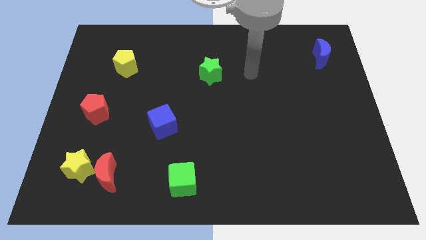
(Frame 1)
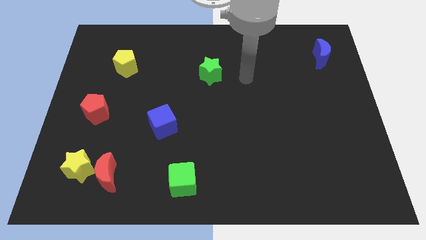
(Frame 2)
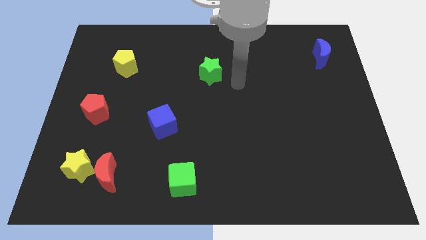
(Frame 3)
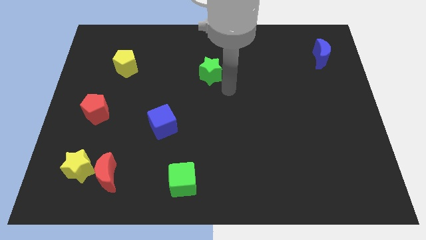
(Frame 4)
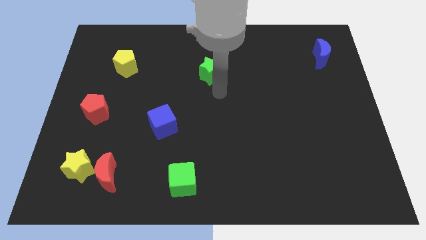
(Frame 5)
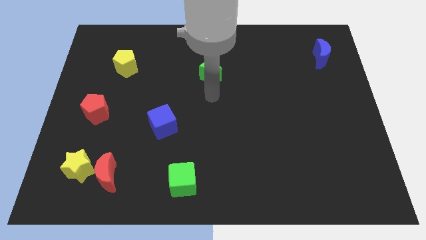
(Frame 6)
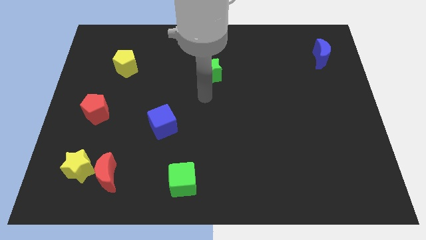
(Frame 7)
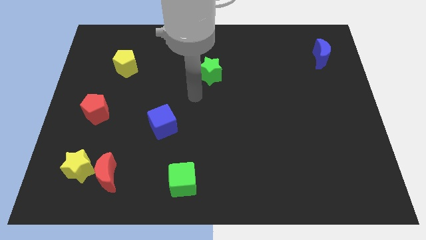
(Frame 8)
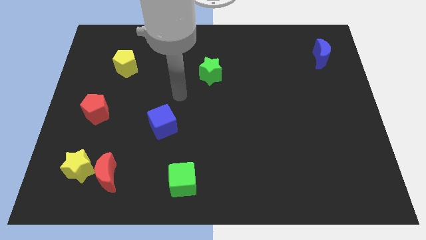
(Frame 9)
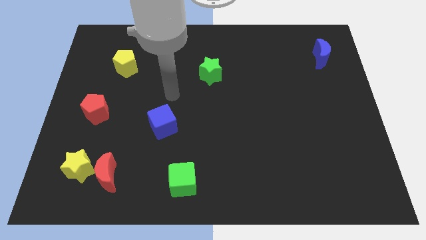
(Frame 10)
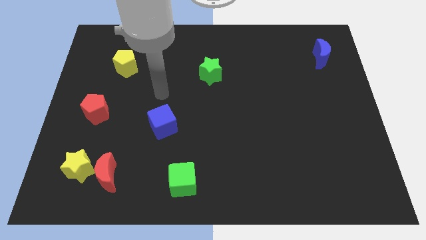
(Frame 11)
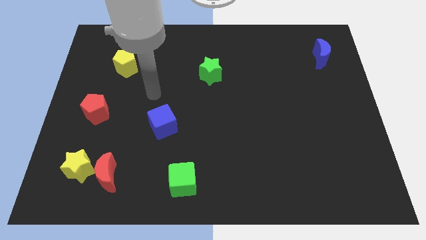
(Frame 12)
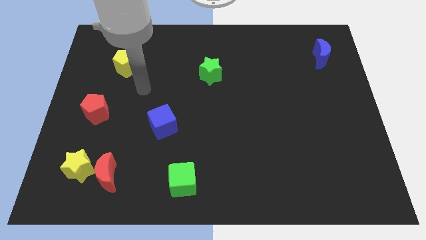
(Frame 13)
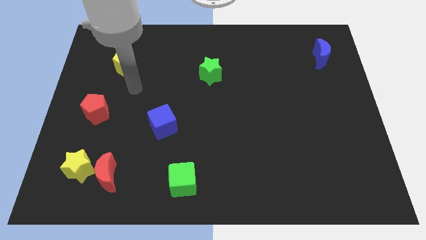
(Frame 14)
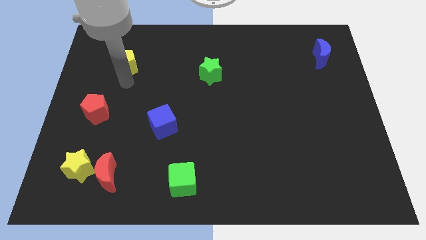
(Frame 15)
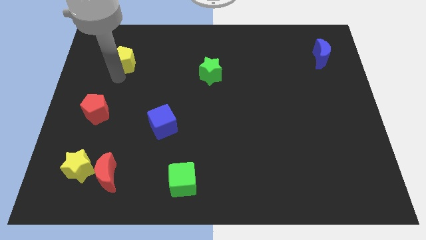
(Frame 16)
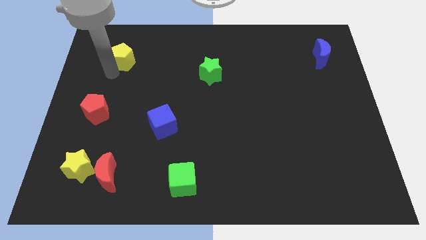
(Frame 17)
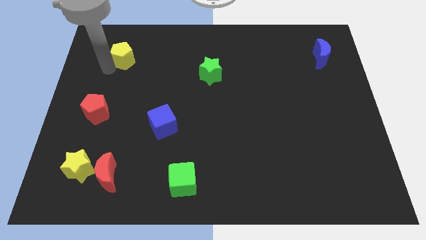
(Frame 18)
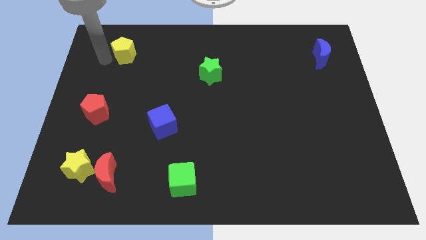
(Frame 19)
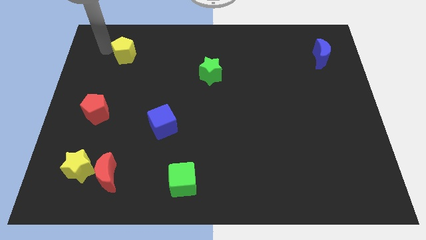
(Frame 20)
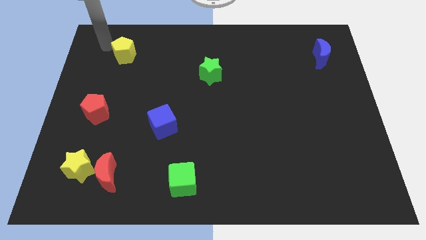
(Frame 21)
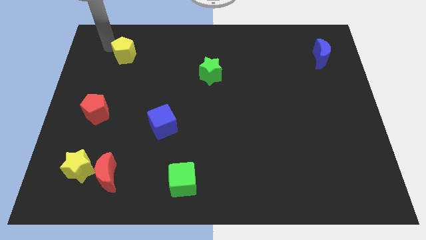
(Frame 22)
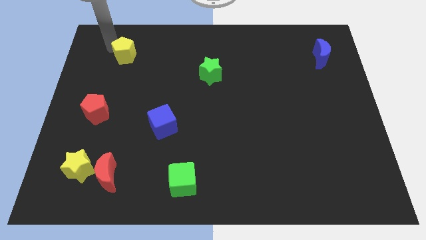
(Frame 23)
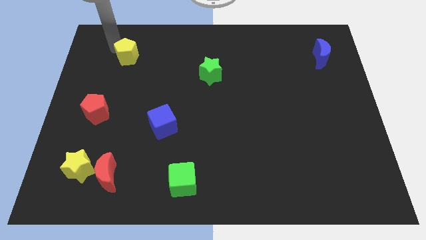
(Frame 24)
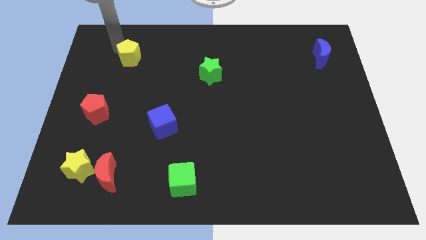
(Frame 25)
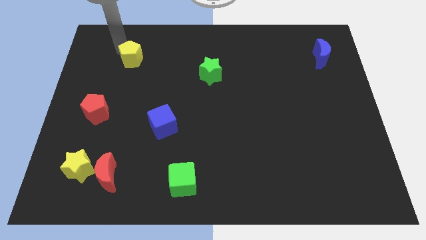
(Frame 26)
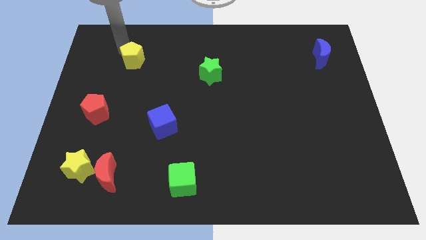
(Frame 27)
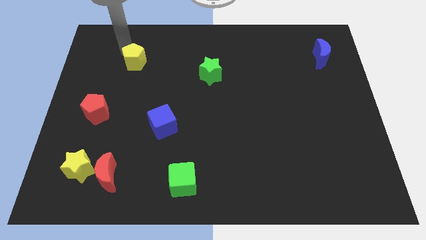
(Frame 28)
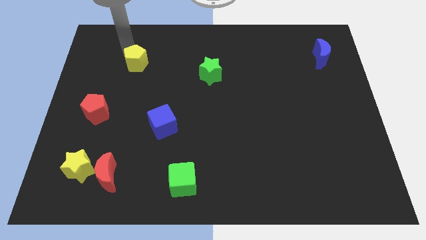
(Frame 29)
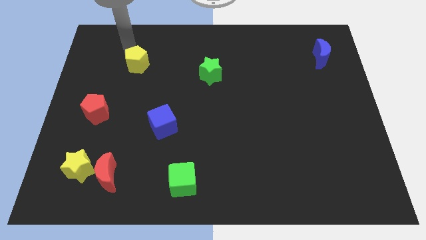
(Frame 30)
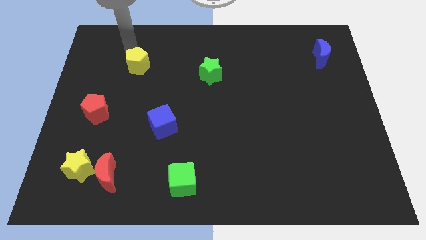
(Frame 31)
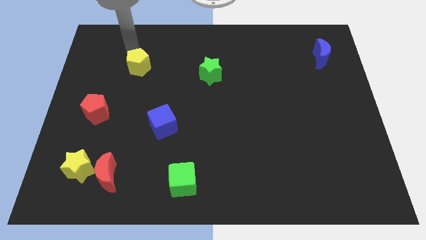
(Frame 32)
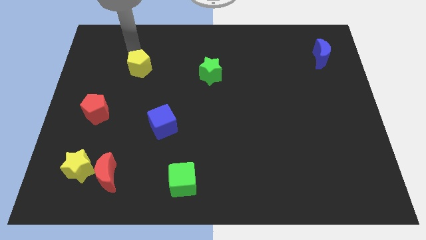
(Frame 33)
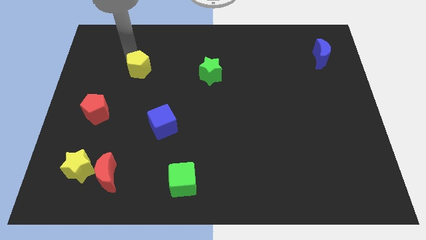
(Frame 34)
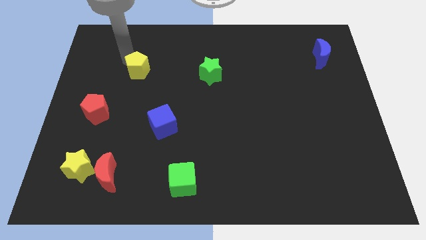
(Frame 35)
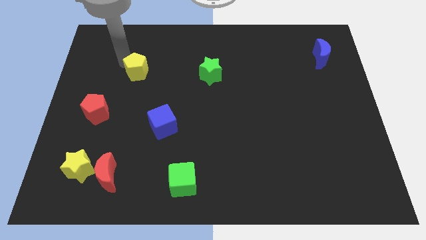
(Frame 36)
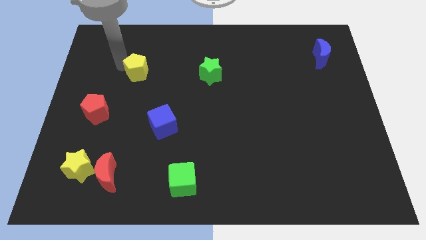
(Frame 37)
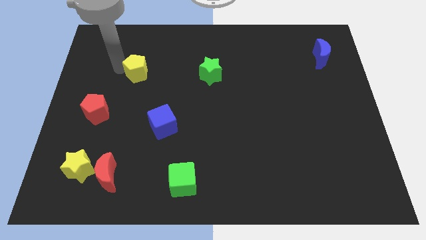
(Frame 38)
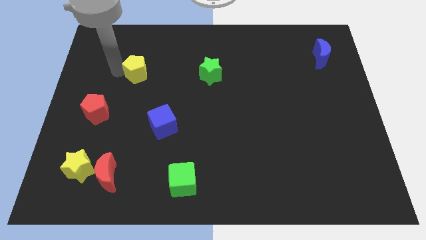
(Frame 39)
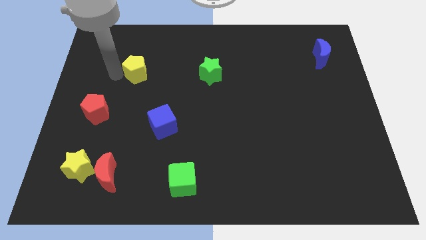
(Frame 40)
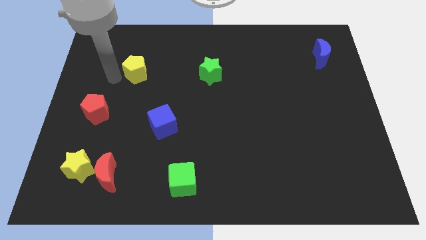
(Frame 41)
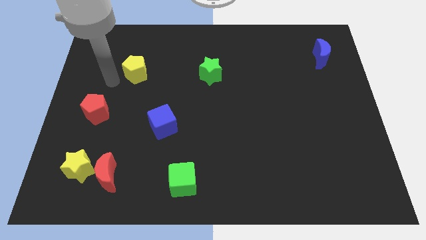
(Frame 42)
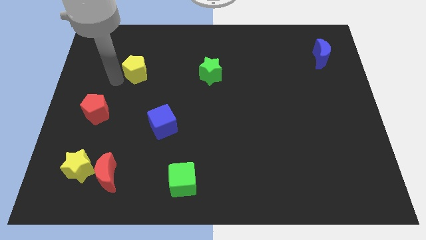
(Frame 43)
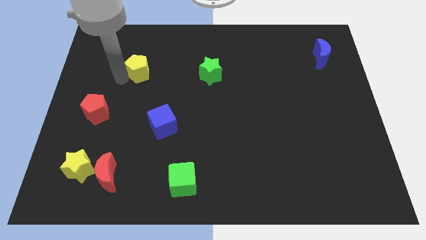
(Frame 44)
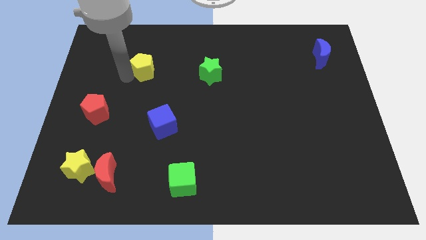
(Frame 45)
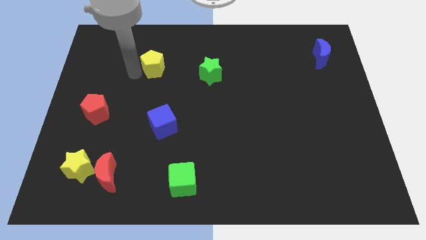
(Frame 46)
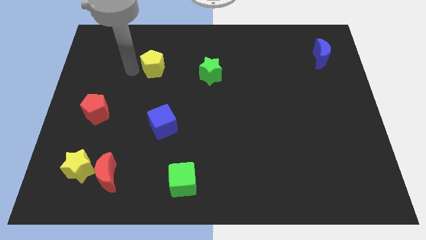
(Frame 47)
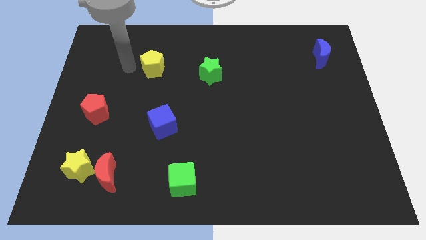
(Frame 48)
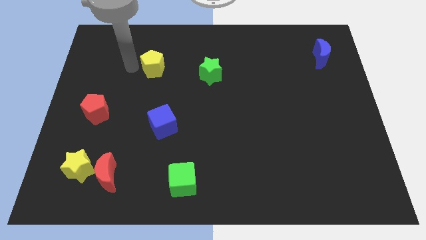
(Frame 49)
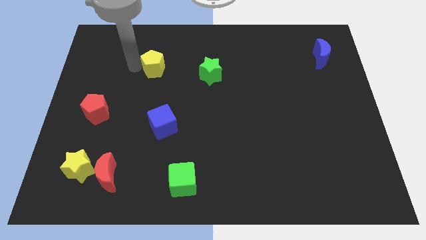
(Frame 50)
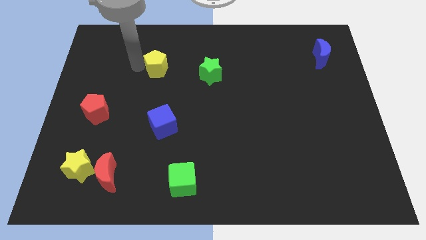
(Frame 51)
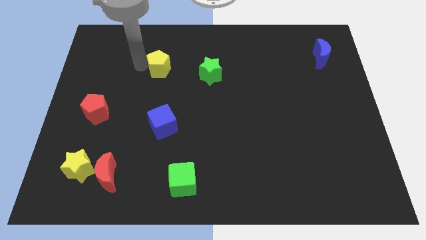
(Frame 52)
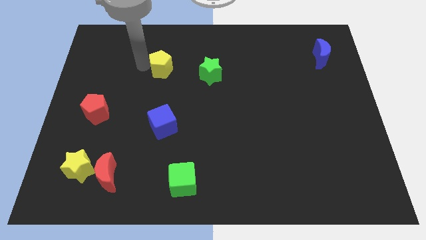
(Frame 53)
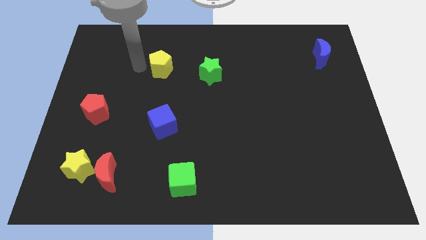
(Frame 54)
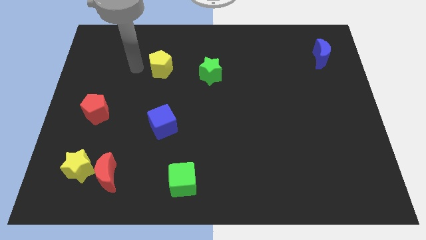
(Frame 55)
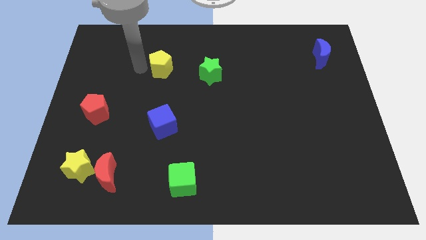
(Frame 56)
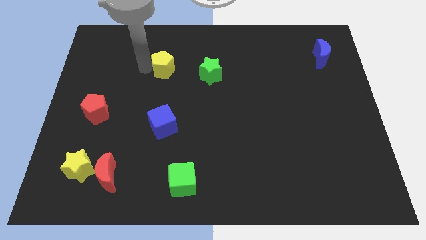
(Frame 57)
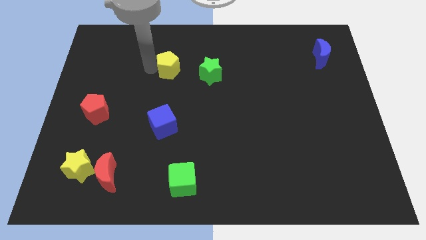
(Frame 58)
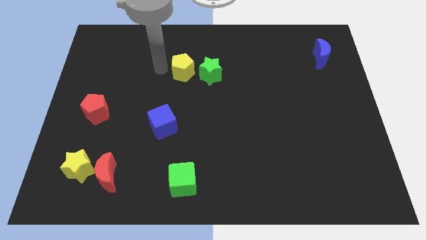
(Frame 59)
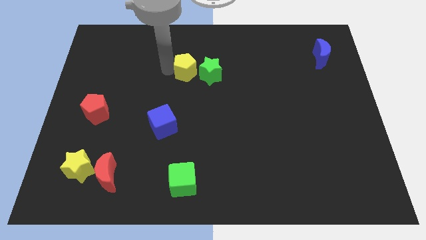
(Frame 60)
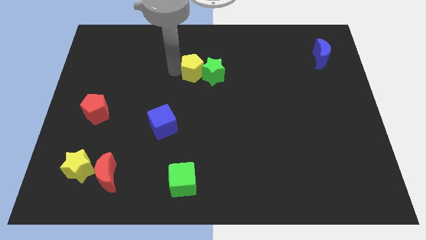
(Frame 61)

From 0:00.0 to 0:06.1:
put the yellow pentagon close to the green star

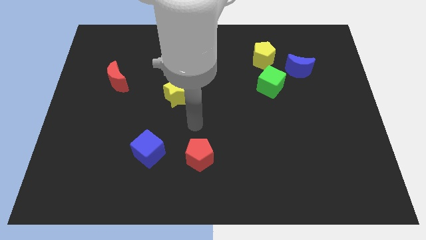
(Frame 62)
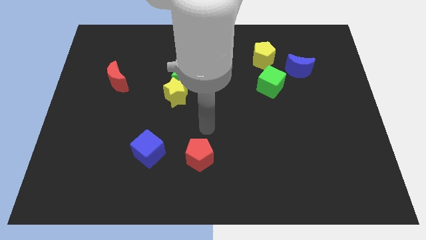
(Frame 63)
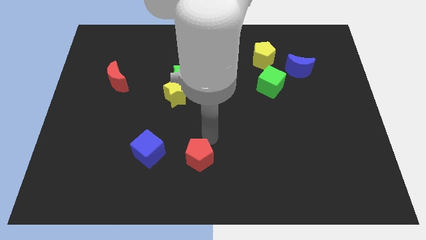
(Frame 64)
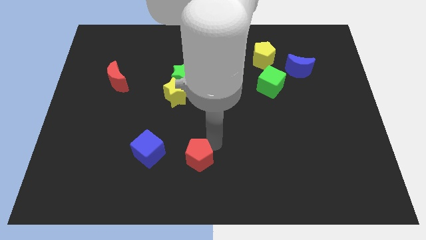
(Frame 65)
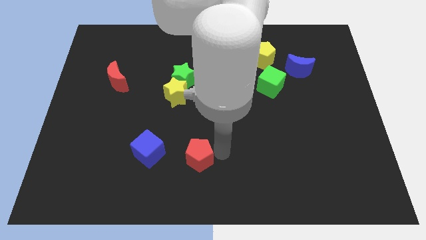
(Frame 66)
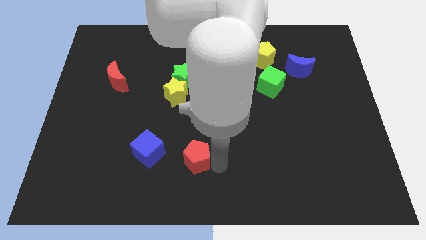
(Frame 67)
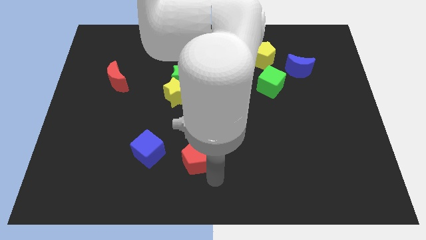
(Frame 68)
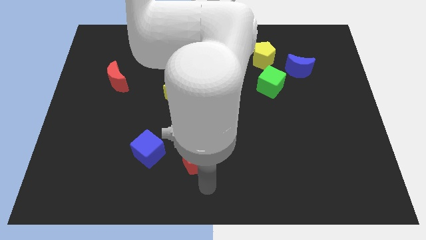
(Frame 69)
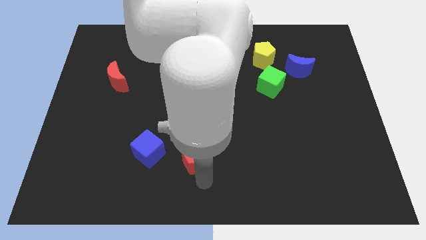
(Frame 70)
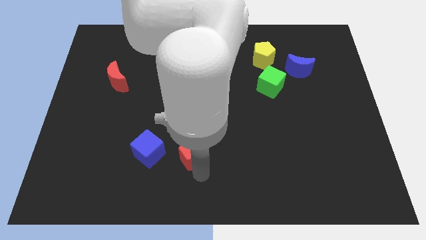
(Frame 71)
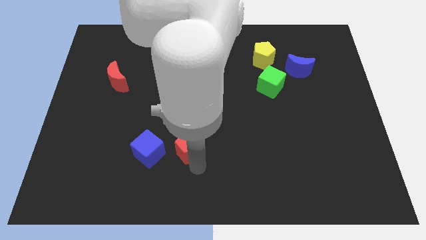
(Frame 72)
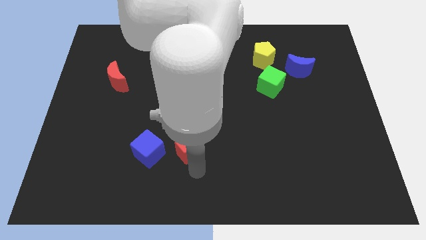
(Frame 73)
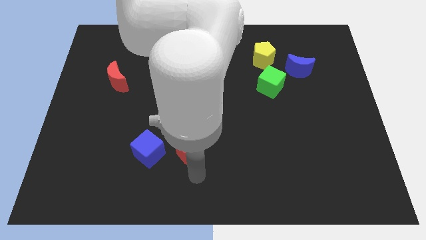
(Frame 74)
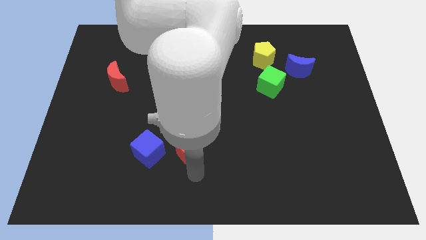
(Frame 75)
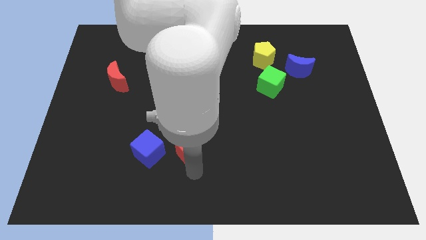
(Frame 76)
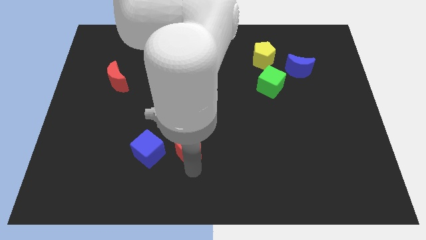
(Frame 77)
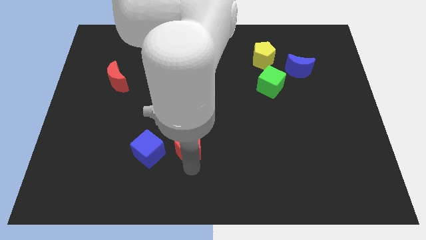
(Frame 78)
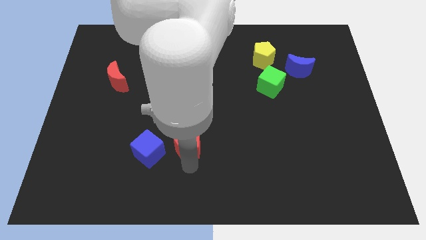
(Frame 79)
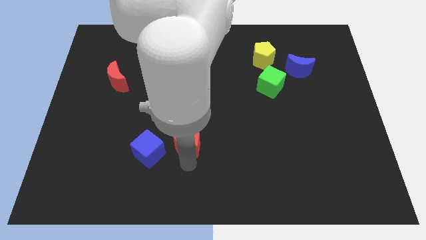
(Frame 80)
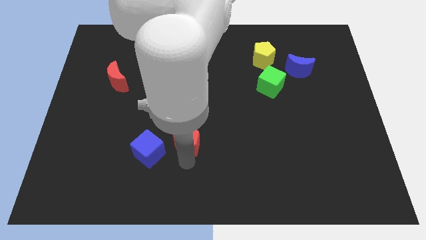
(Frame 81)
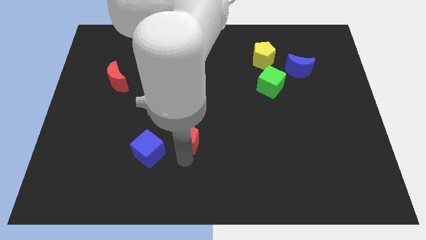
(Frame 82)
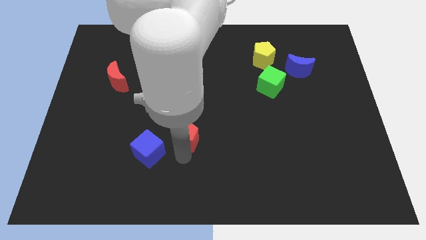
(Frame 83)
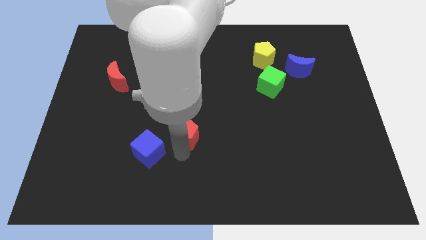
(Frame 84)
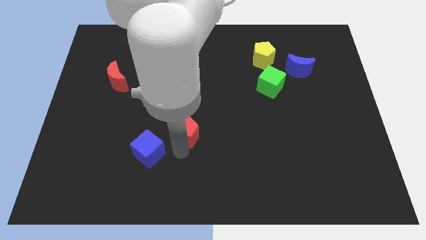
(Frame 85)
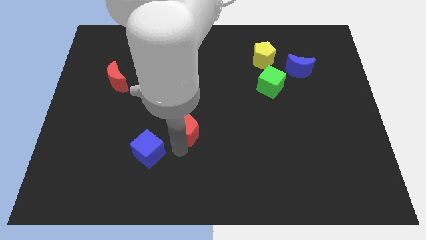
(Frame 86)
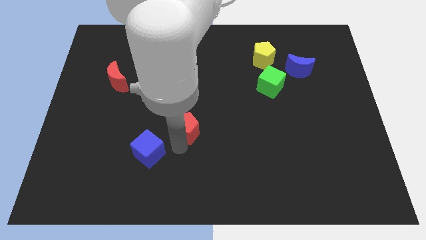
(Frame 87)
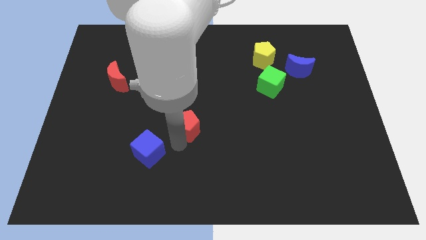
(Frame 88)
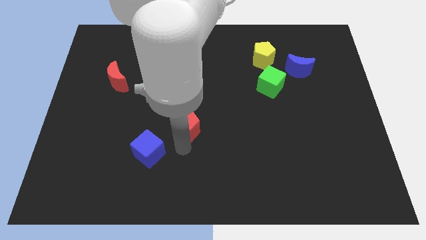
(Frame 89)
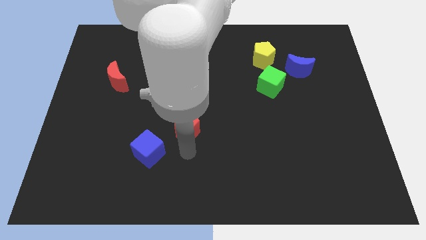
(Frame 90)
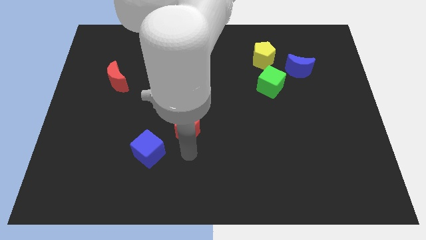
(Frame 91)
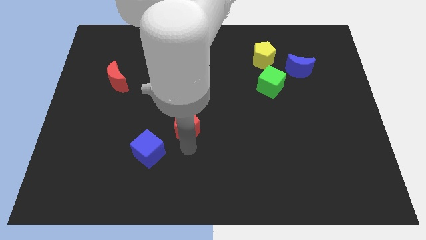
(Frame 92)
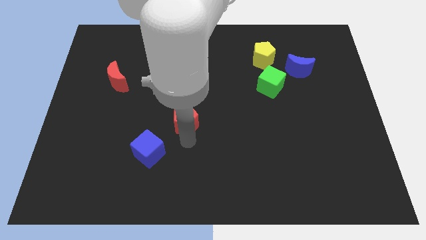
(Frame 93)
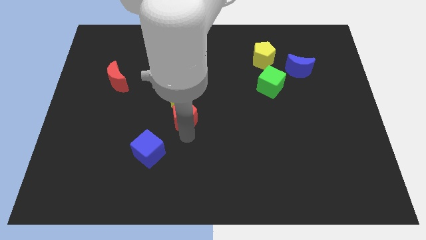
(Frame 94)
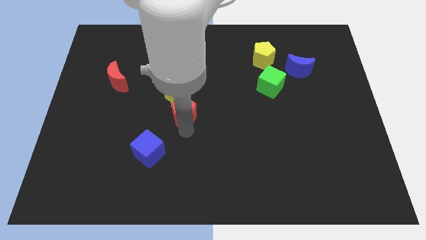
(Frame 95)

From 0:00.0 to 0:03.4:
push the red pentagon next to the yellow star
